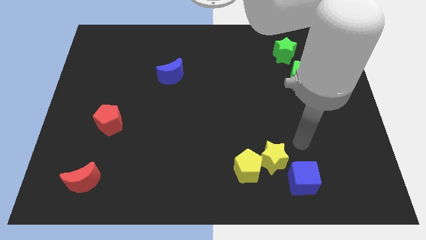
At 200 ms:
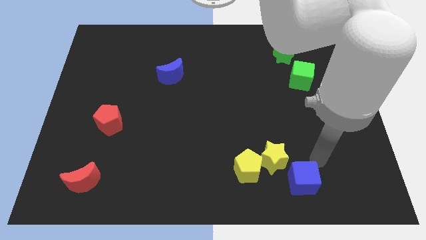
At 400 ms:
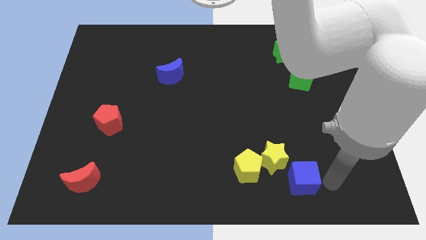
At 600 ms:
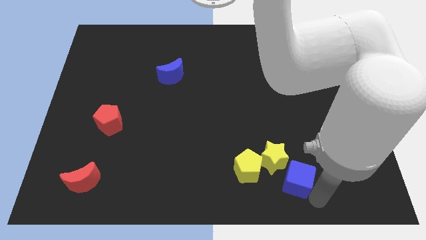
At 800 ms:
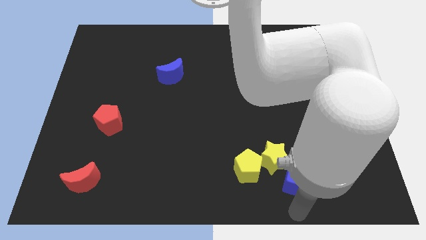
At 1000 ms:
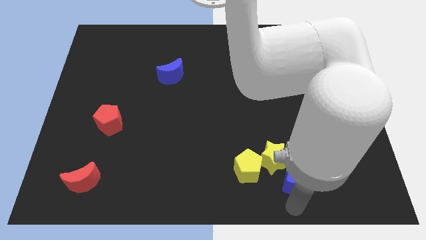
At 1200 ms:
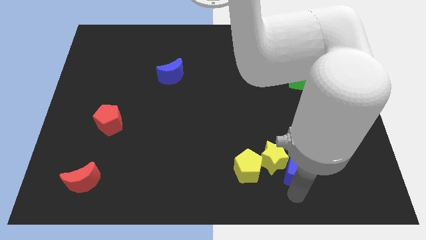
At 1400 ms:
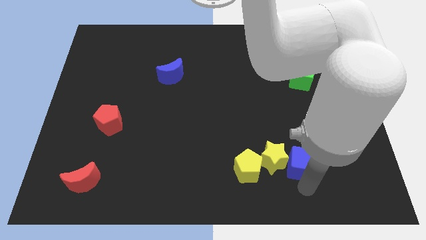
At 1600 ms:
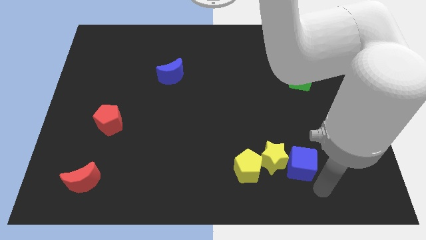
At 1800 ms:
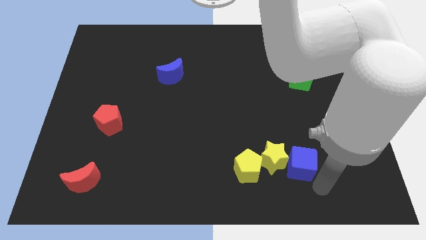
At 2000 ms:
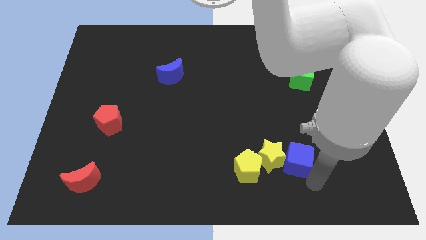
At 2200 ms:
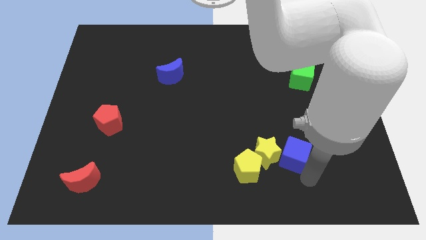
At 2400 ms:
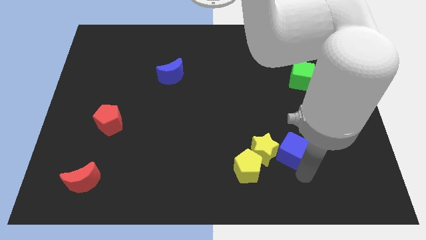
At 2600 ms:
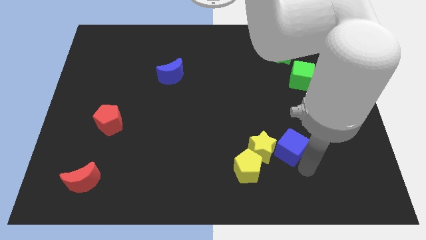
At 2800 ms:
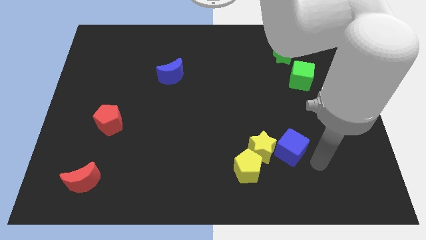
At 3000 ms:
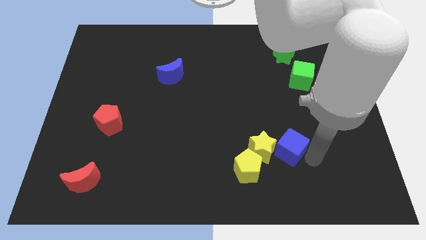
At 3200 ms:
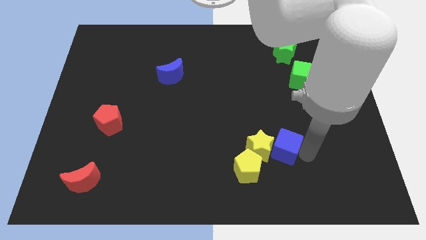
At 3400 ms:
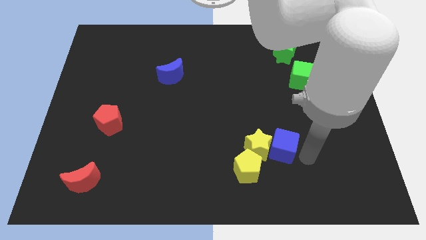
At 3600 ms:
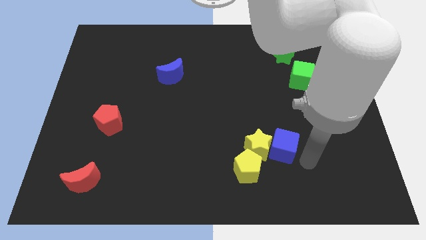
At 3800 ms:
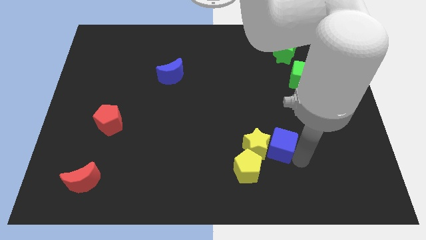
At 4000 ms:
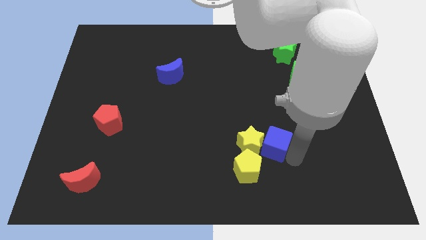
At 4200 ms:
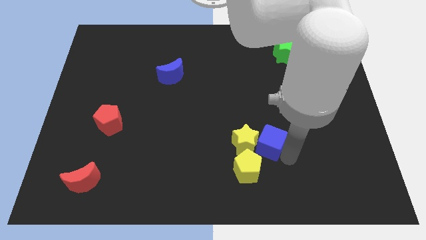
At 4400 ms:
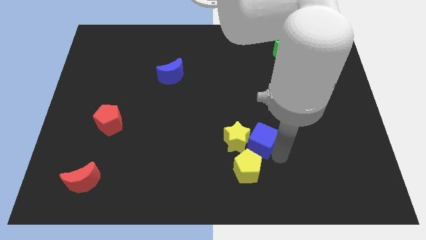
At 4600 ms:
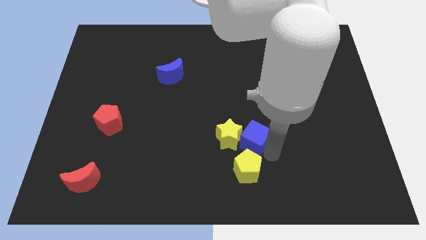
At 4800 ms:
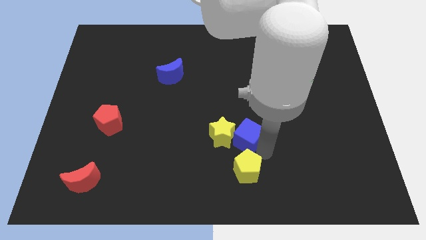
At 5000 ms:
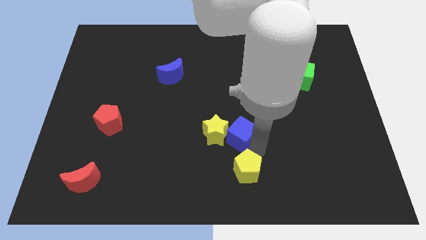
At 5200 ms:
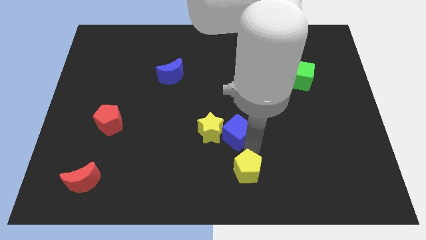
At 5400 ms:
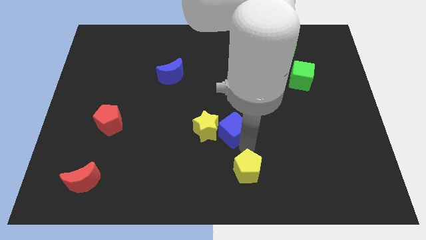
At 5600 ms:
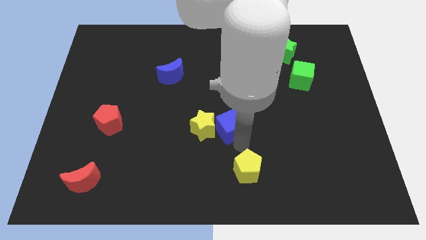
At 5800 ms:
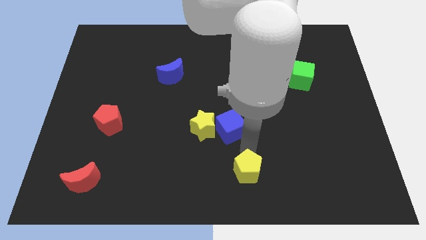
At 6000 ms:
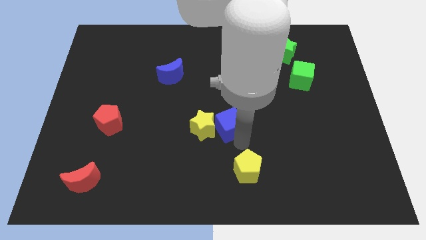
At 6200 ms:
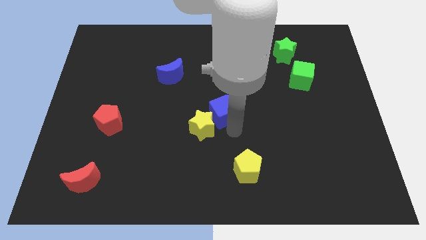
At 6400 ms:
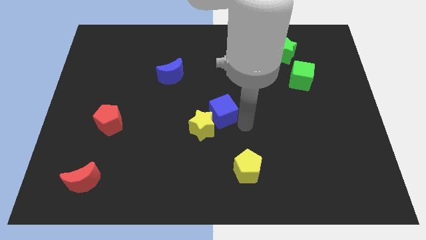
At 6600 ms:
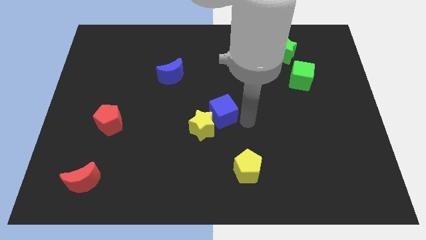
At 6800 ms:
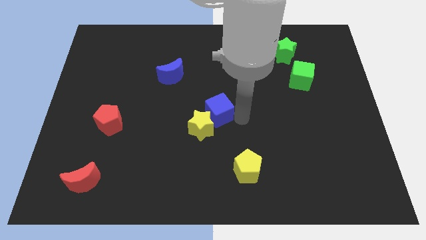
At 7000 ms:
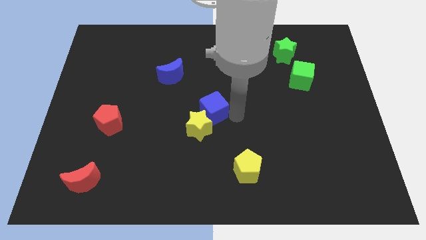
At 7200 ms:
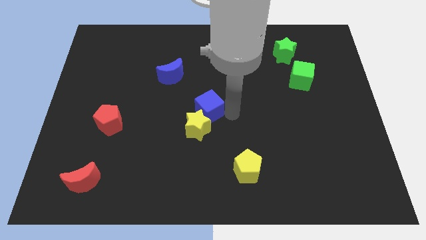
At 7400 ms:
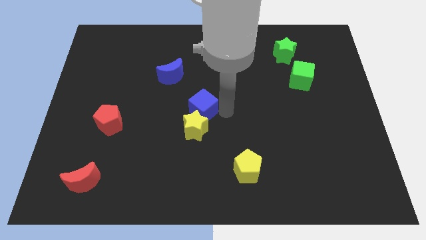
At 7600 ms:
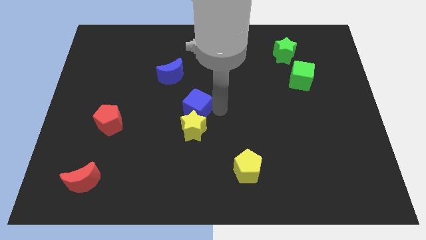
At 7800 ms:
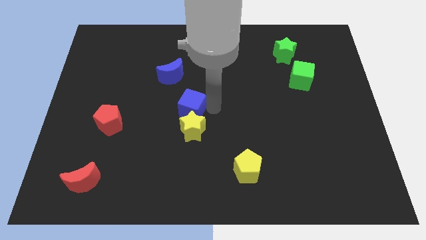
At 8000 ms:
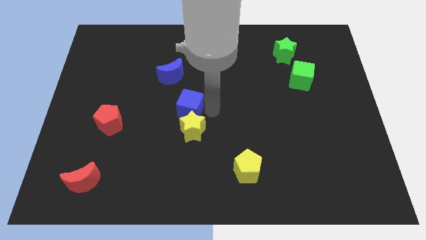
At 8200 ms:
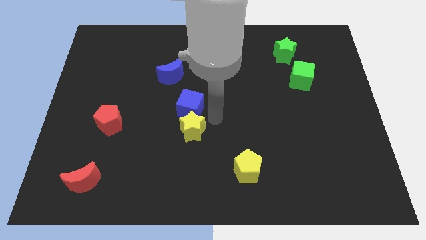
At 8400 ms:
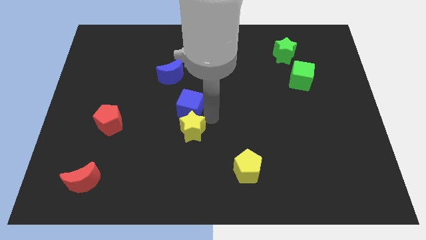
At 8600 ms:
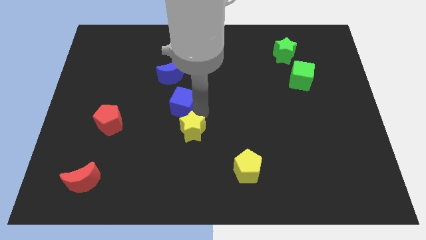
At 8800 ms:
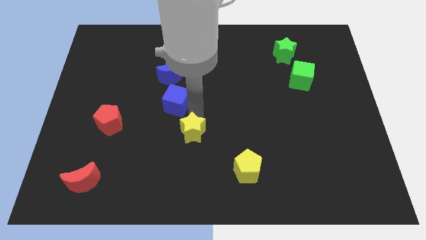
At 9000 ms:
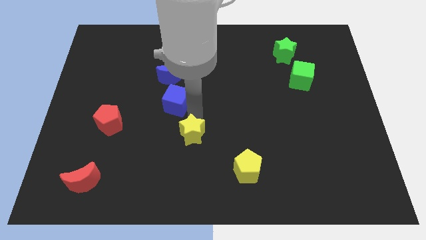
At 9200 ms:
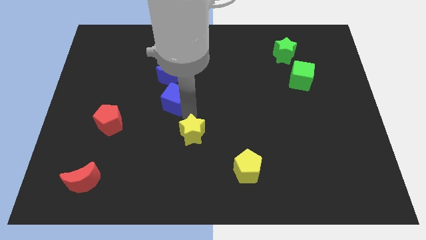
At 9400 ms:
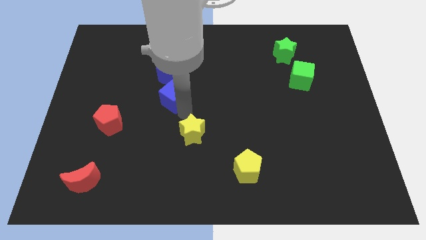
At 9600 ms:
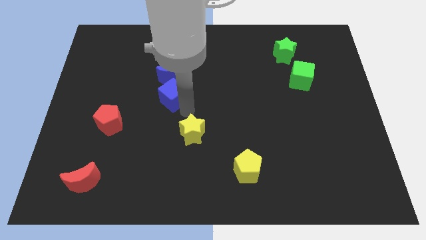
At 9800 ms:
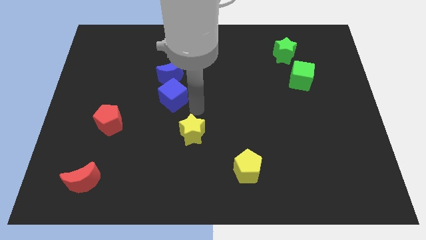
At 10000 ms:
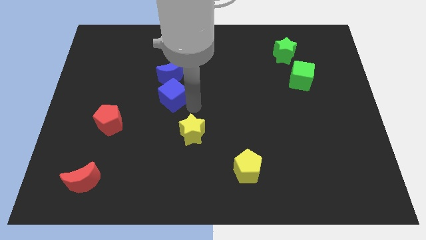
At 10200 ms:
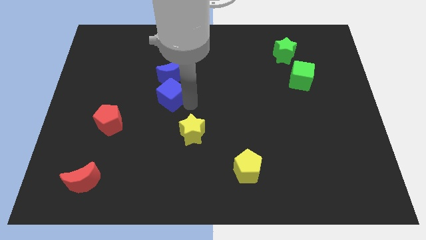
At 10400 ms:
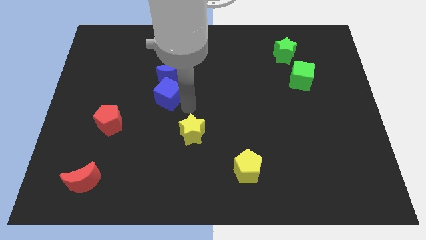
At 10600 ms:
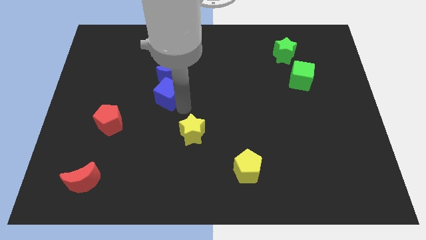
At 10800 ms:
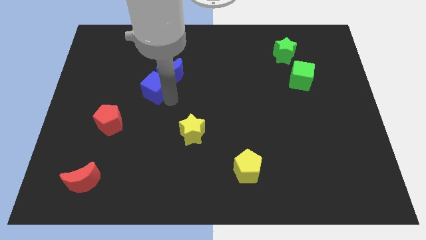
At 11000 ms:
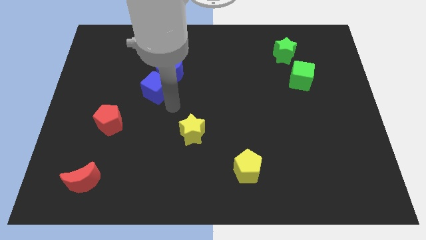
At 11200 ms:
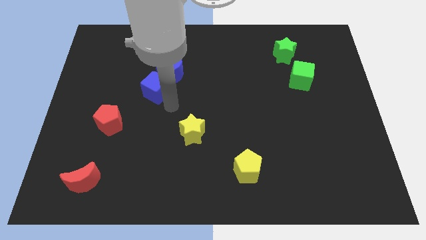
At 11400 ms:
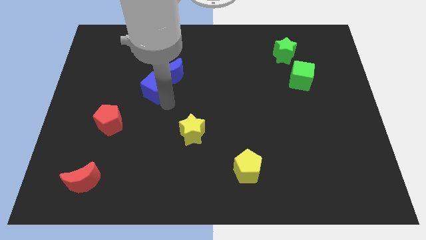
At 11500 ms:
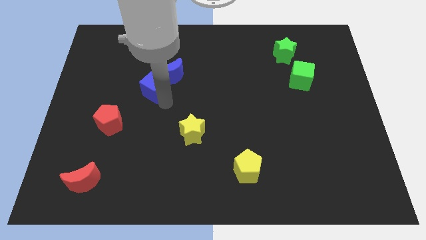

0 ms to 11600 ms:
move the blue cube just left of the blue moon

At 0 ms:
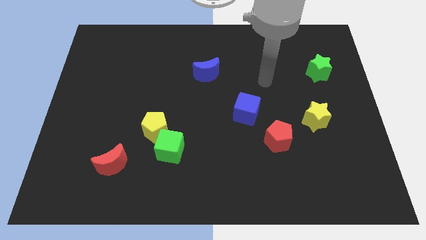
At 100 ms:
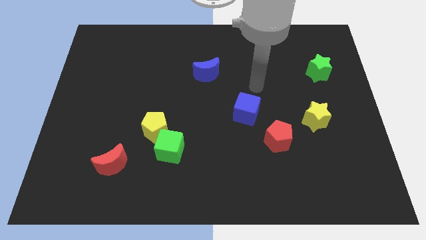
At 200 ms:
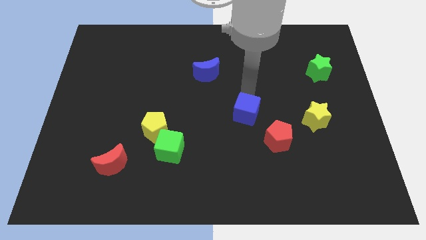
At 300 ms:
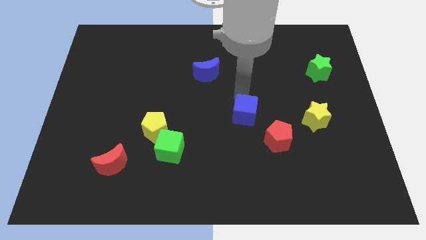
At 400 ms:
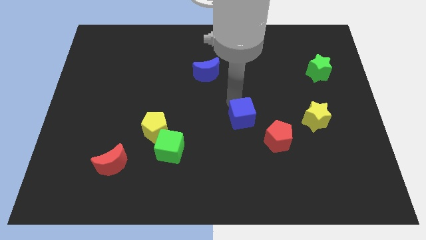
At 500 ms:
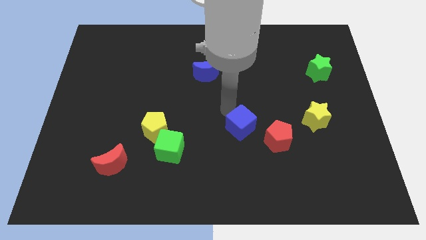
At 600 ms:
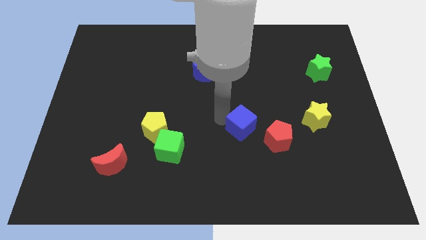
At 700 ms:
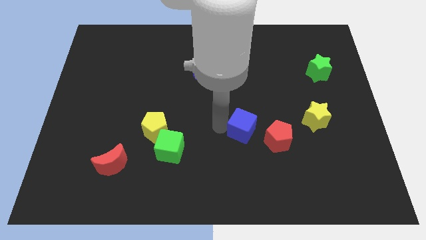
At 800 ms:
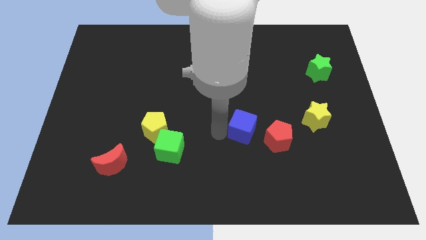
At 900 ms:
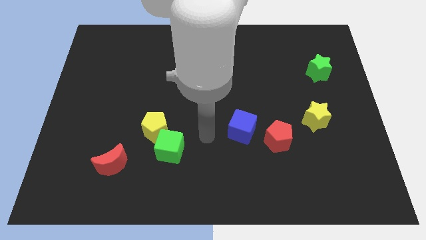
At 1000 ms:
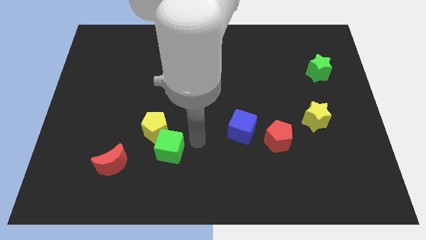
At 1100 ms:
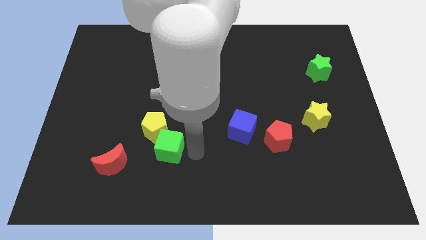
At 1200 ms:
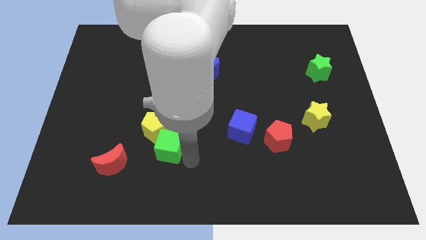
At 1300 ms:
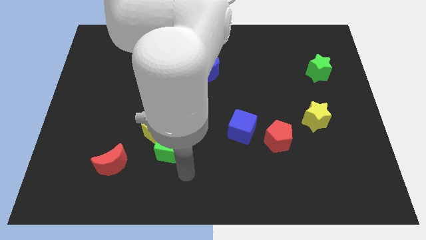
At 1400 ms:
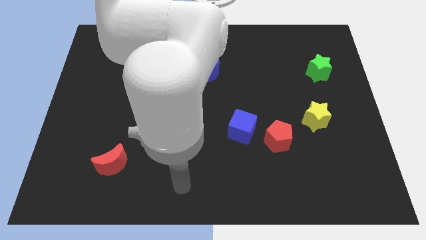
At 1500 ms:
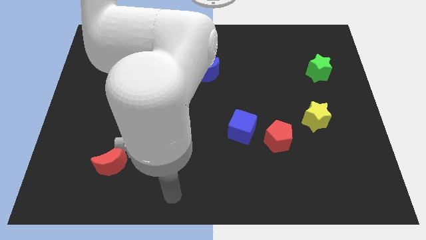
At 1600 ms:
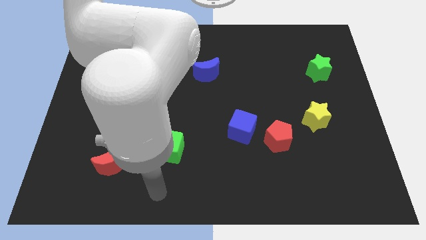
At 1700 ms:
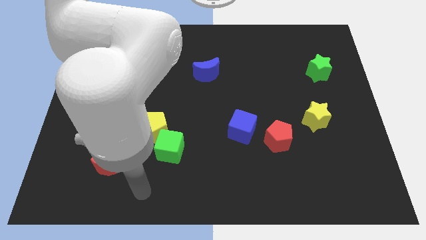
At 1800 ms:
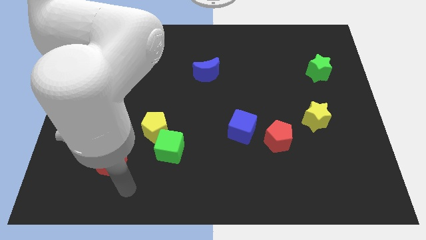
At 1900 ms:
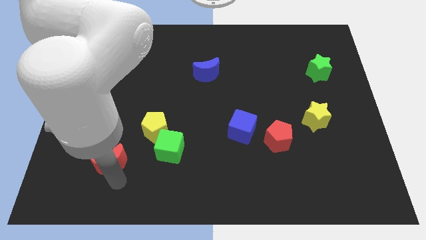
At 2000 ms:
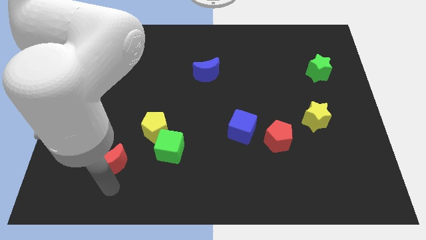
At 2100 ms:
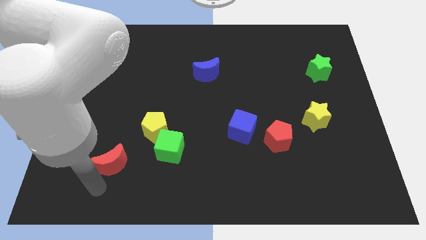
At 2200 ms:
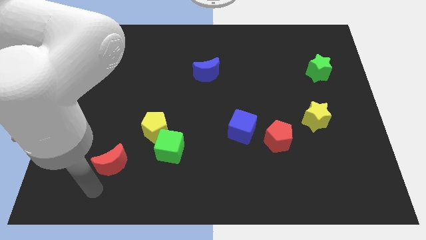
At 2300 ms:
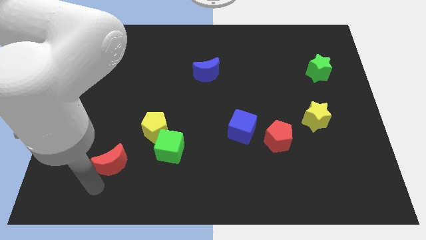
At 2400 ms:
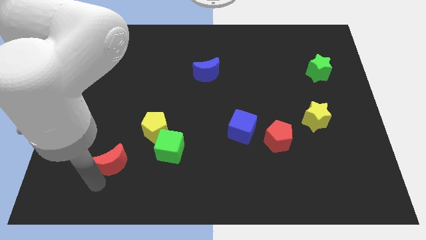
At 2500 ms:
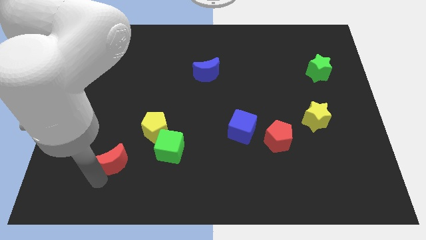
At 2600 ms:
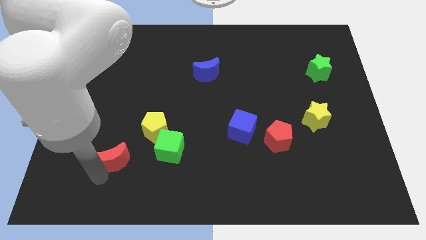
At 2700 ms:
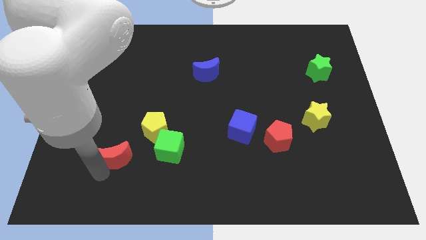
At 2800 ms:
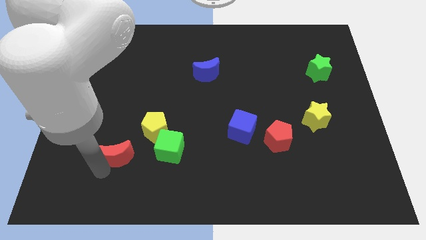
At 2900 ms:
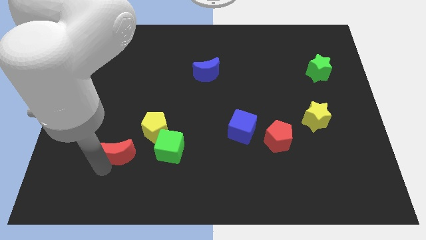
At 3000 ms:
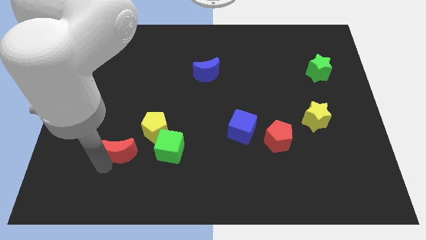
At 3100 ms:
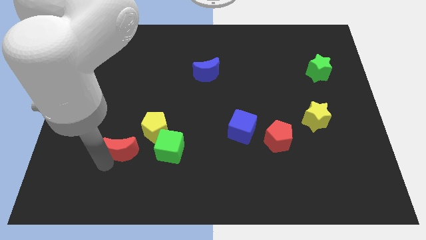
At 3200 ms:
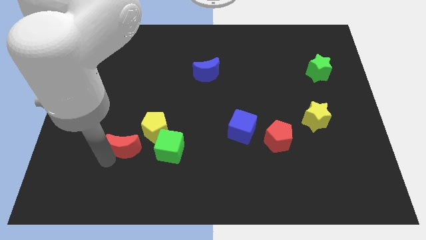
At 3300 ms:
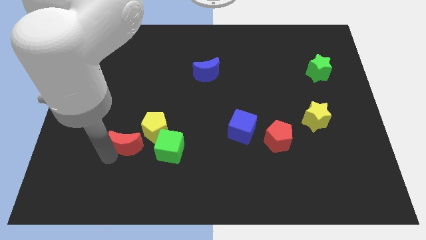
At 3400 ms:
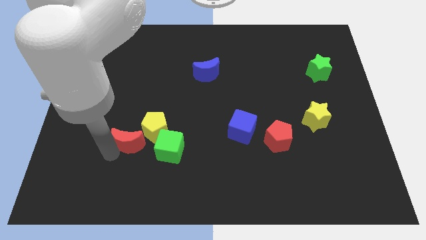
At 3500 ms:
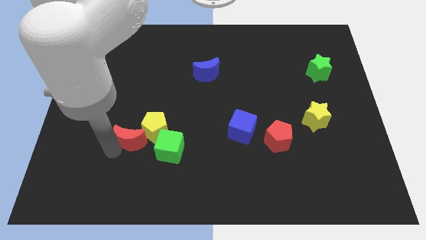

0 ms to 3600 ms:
put the red moon to the top left of the green cube
